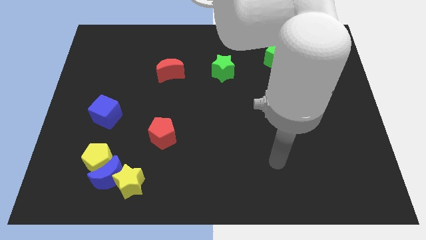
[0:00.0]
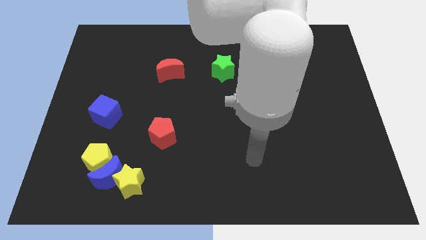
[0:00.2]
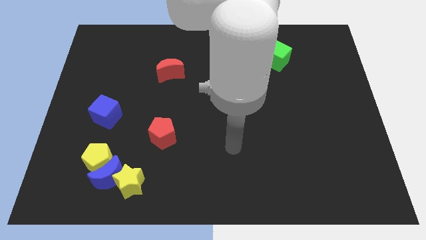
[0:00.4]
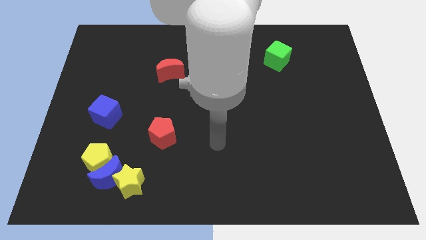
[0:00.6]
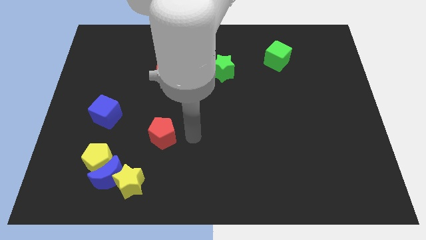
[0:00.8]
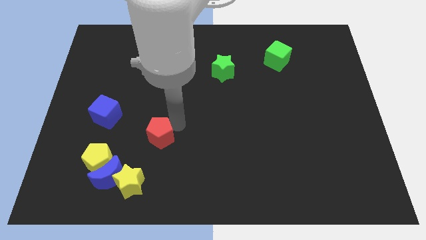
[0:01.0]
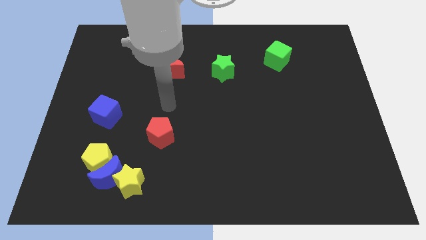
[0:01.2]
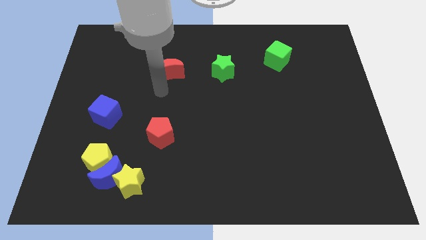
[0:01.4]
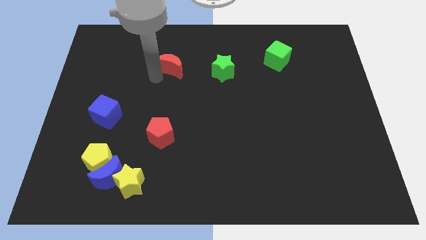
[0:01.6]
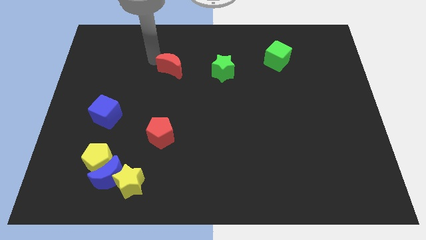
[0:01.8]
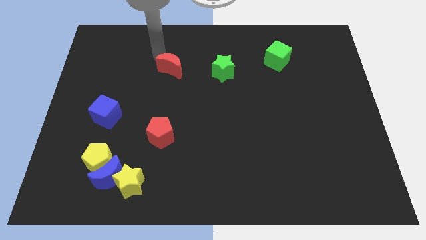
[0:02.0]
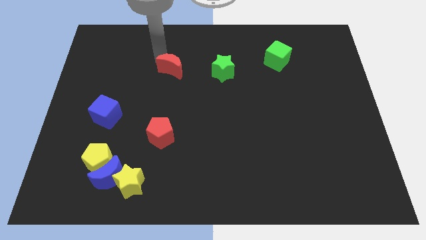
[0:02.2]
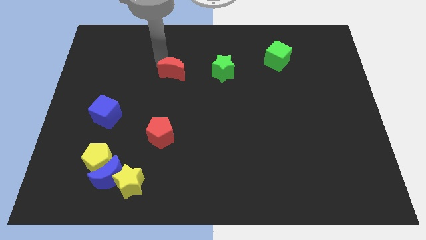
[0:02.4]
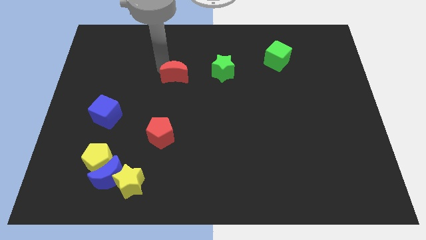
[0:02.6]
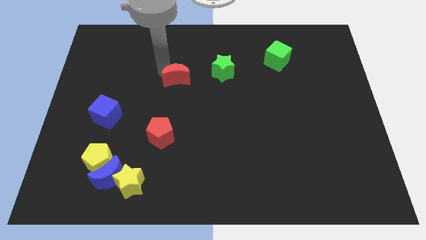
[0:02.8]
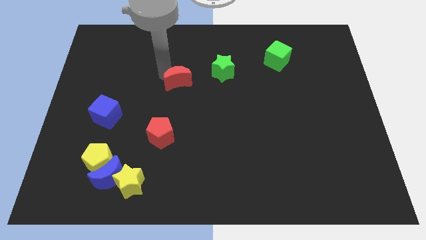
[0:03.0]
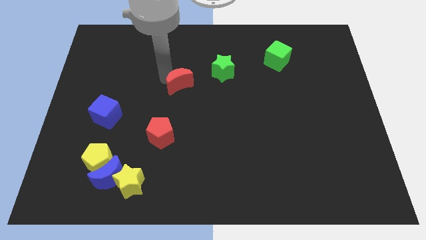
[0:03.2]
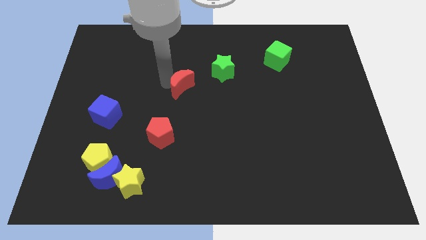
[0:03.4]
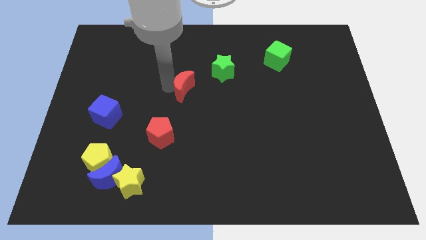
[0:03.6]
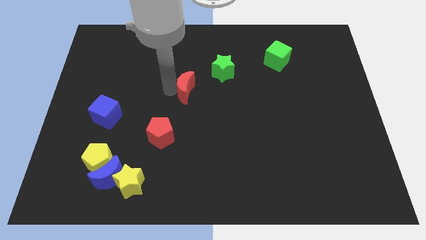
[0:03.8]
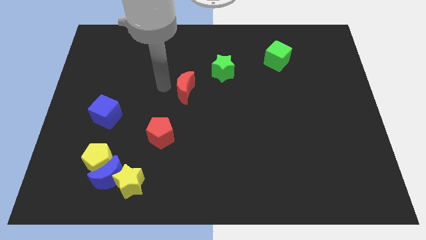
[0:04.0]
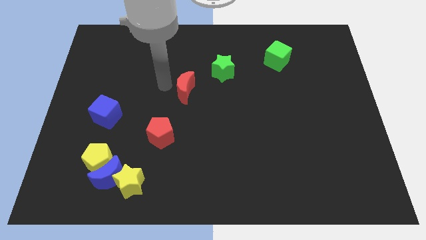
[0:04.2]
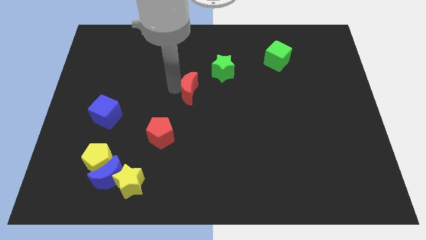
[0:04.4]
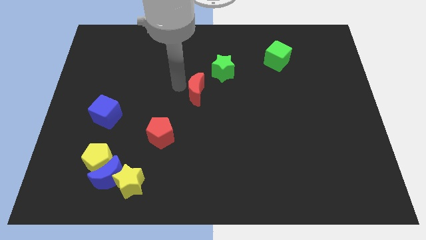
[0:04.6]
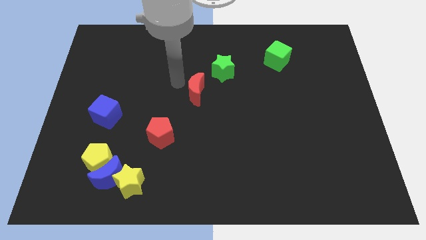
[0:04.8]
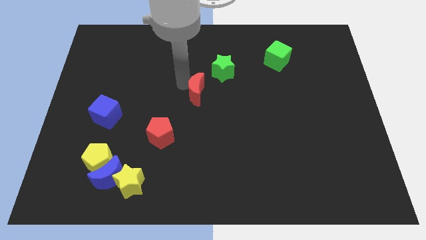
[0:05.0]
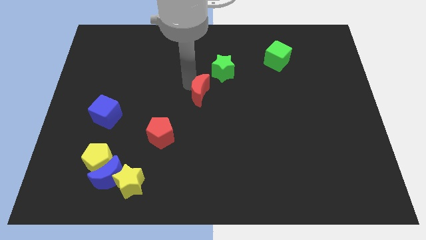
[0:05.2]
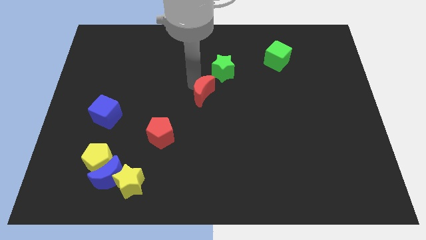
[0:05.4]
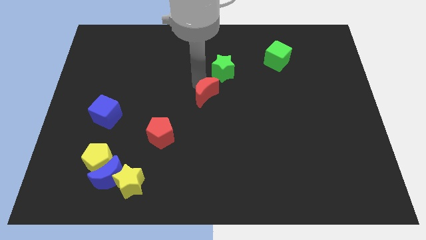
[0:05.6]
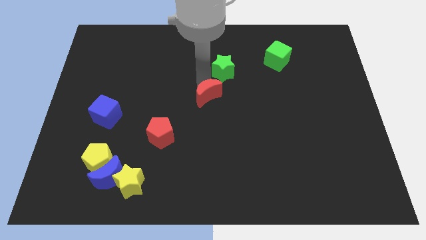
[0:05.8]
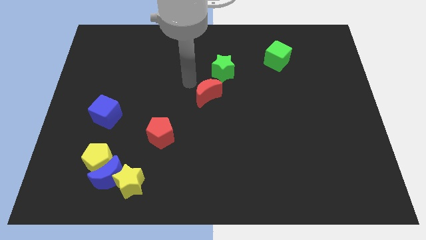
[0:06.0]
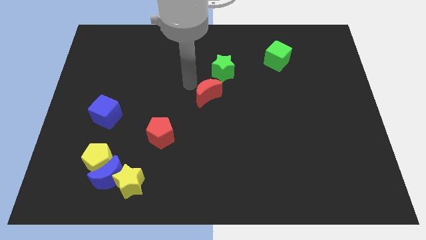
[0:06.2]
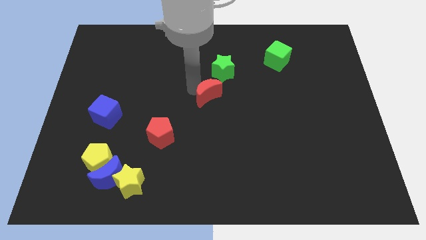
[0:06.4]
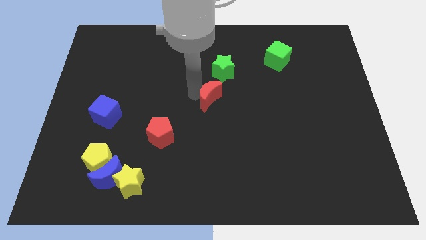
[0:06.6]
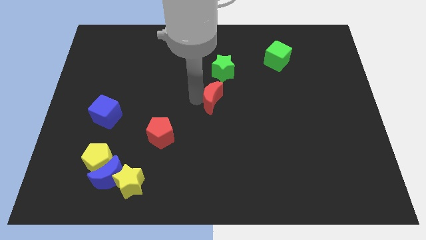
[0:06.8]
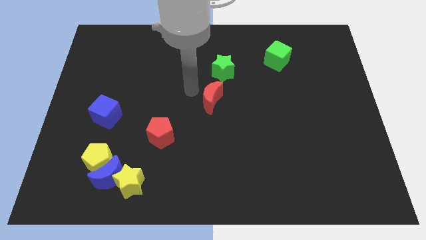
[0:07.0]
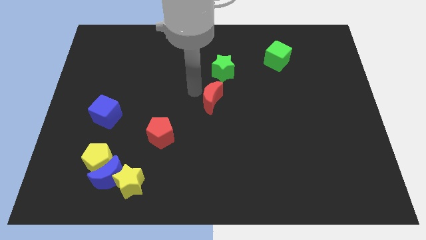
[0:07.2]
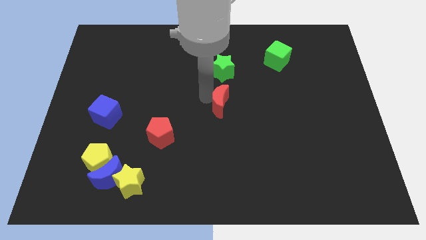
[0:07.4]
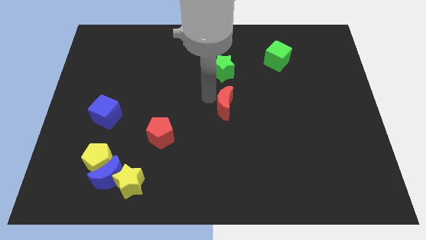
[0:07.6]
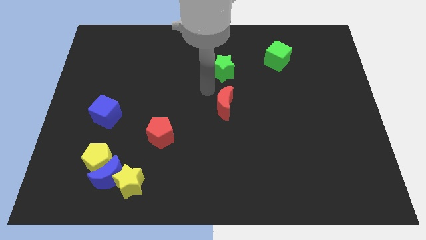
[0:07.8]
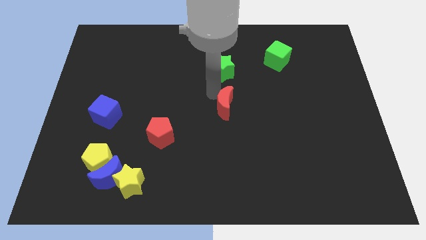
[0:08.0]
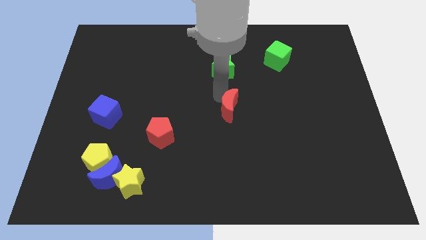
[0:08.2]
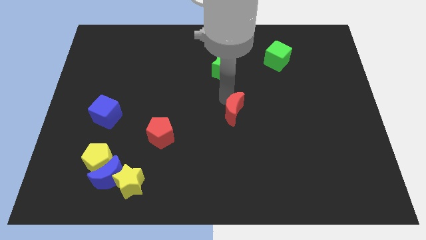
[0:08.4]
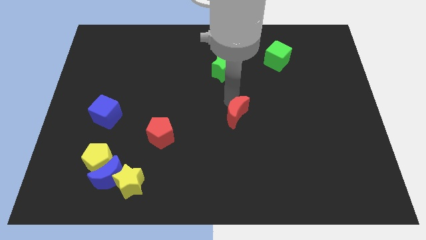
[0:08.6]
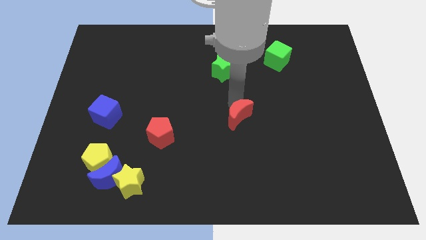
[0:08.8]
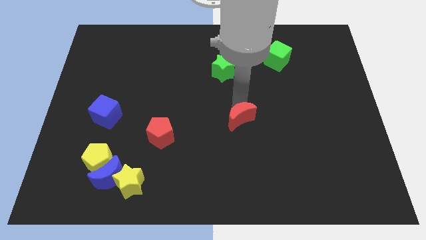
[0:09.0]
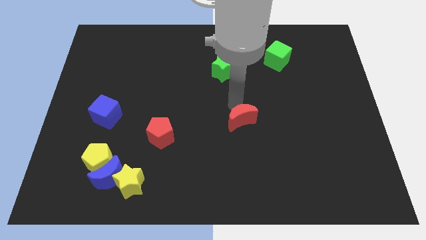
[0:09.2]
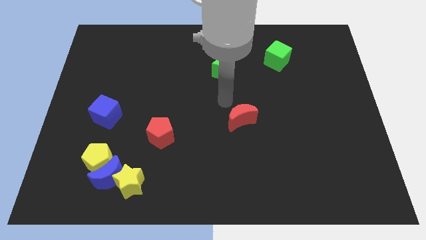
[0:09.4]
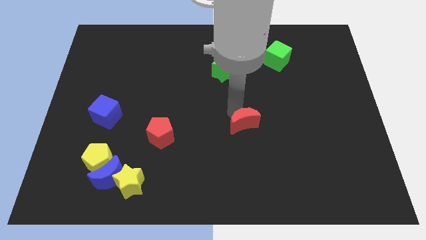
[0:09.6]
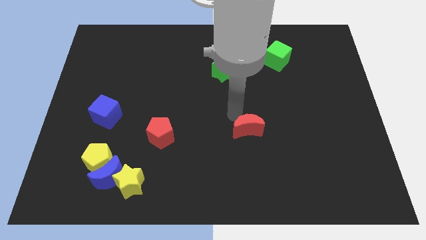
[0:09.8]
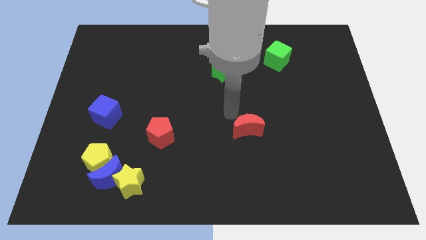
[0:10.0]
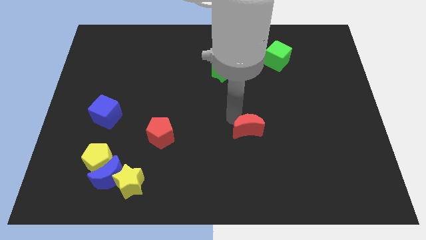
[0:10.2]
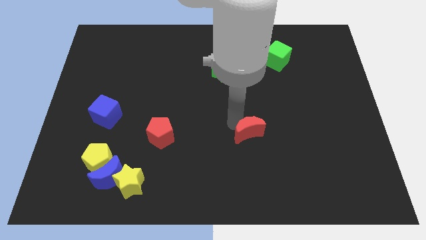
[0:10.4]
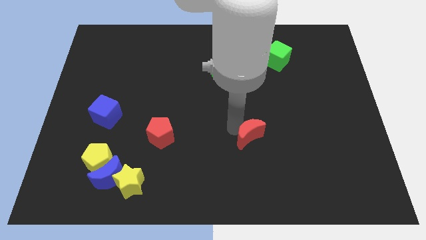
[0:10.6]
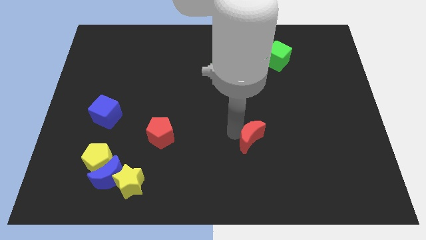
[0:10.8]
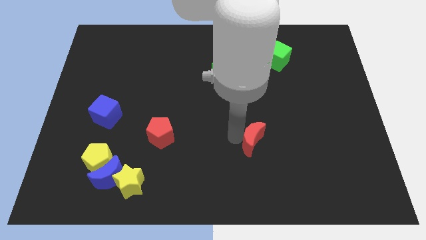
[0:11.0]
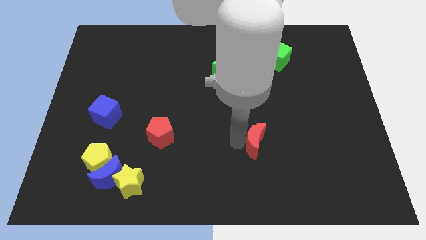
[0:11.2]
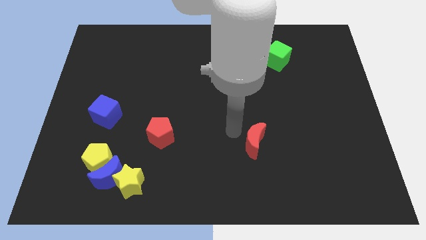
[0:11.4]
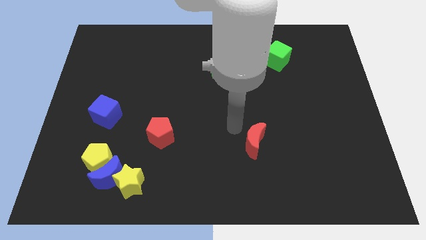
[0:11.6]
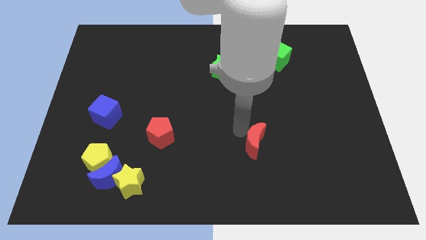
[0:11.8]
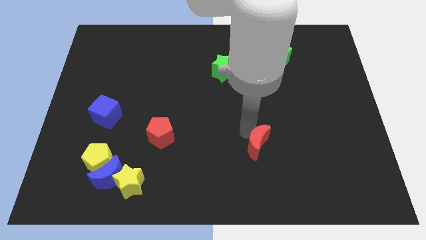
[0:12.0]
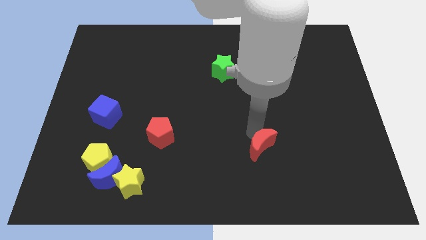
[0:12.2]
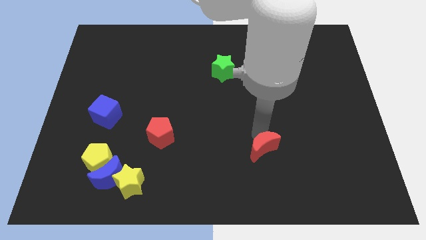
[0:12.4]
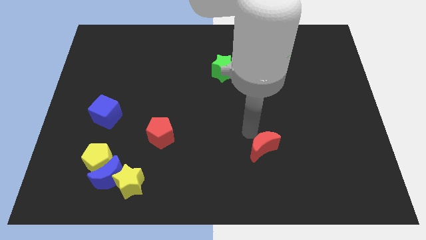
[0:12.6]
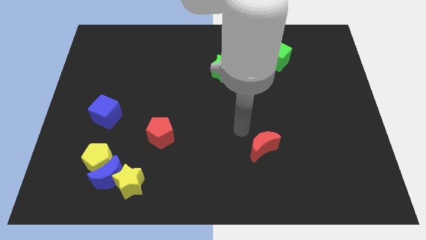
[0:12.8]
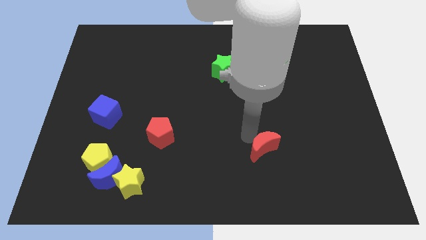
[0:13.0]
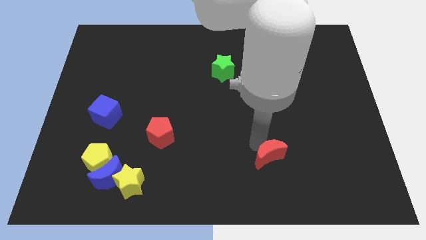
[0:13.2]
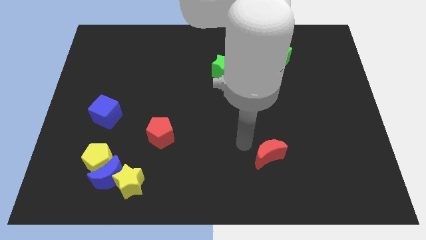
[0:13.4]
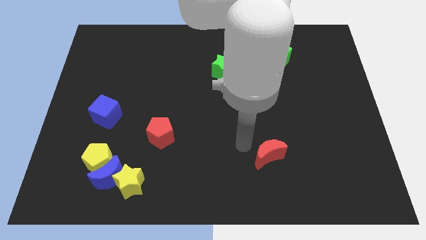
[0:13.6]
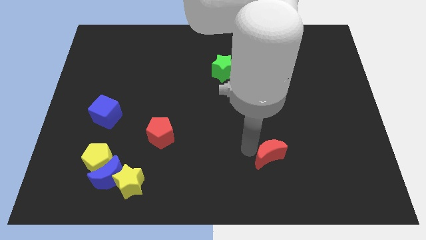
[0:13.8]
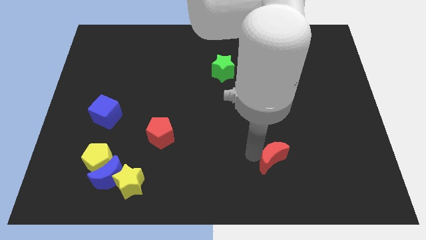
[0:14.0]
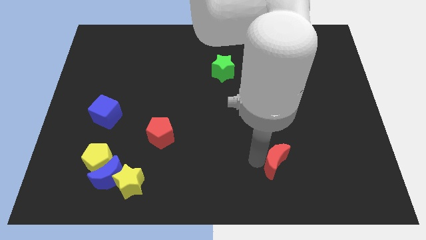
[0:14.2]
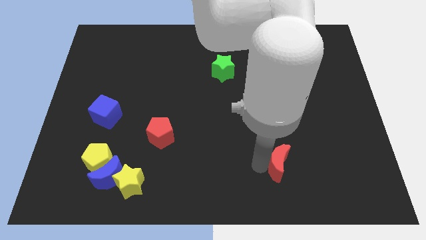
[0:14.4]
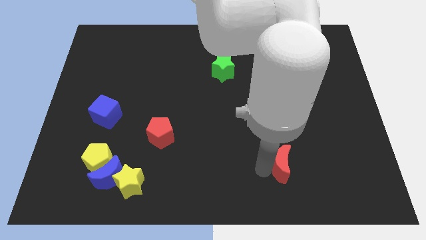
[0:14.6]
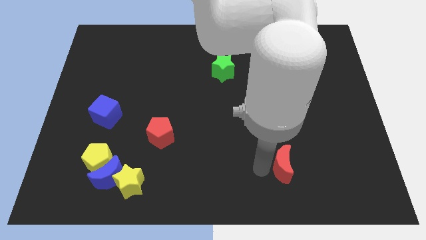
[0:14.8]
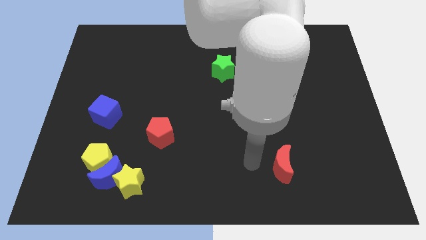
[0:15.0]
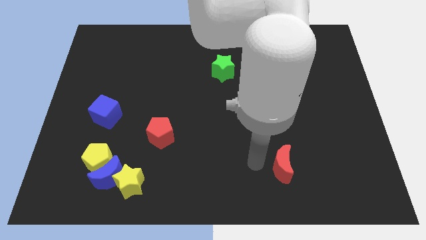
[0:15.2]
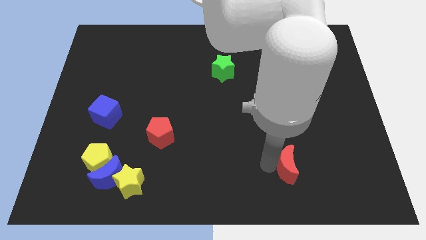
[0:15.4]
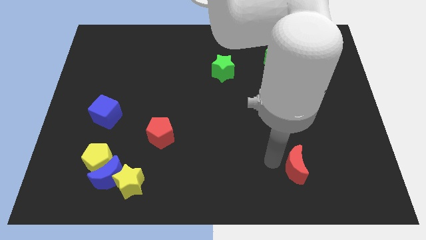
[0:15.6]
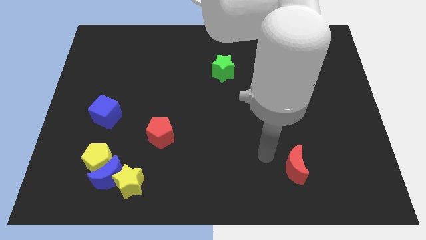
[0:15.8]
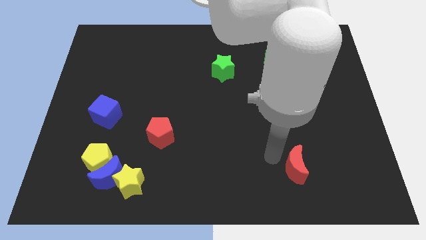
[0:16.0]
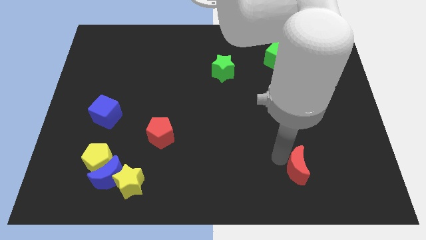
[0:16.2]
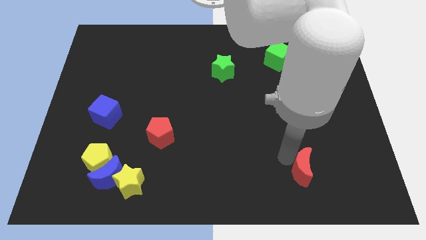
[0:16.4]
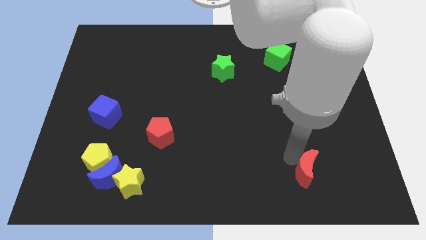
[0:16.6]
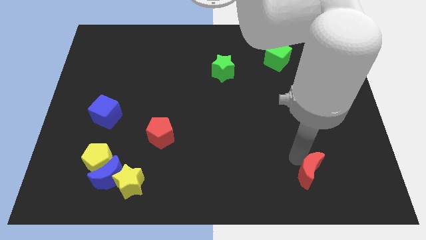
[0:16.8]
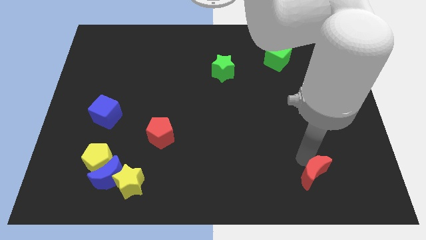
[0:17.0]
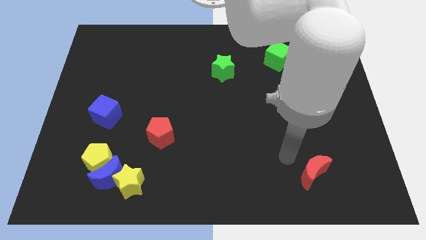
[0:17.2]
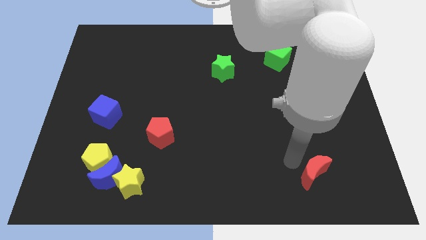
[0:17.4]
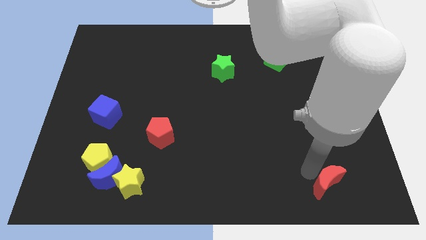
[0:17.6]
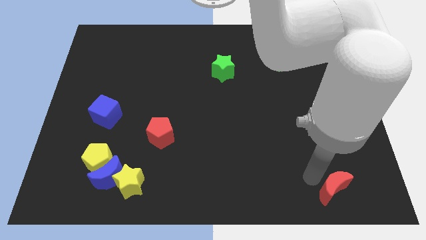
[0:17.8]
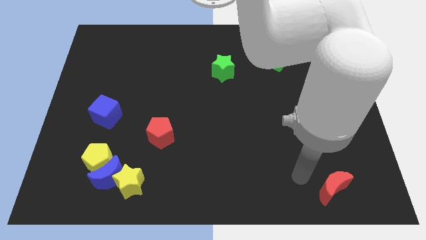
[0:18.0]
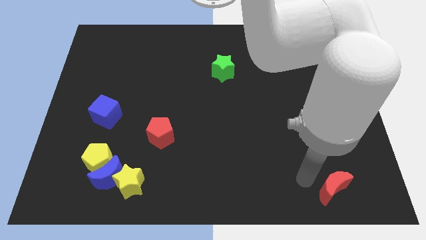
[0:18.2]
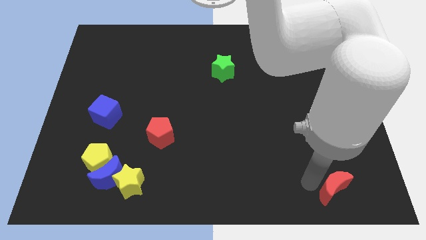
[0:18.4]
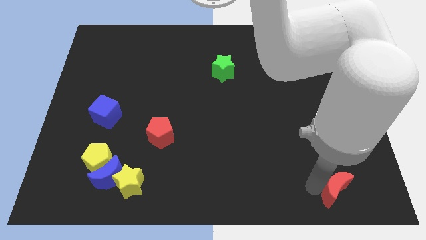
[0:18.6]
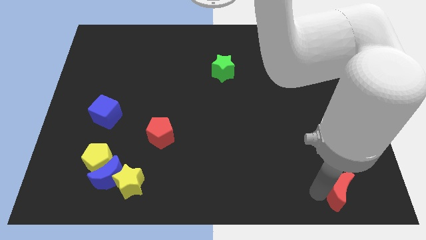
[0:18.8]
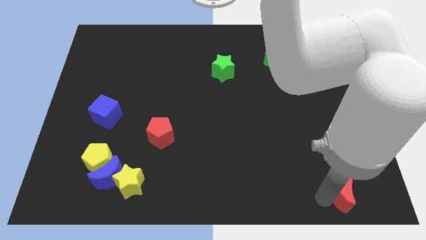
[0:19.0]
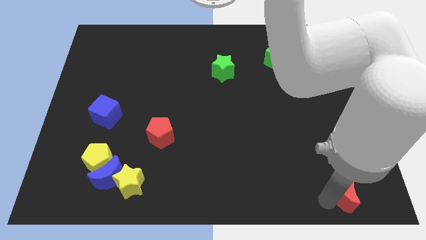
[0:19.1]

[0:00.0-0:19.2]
push the red moon to the lower right corner
